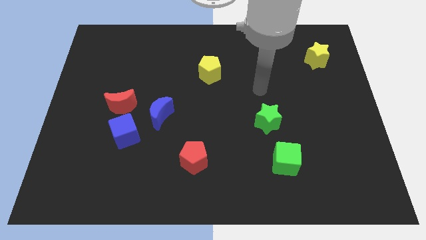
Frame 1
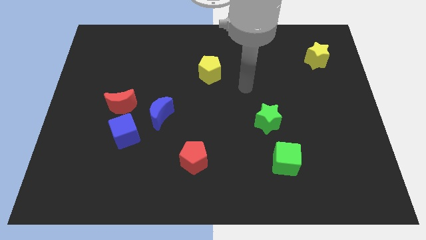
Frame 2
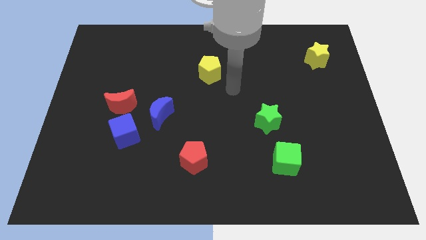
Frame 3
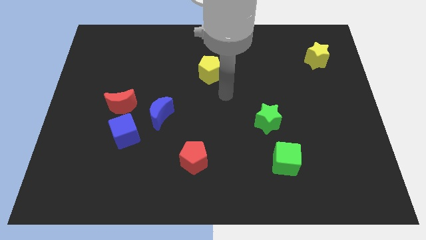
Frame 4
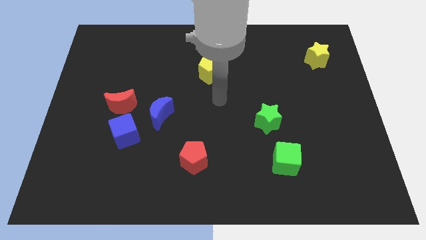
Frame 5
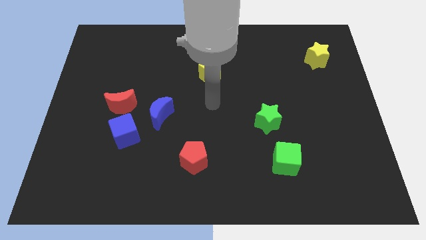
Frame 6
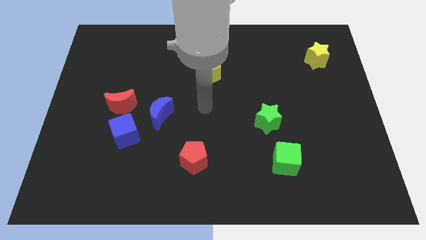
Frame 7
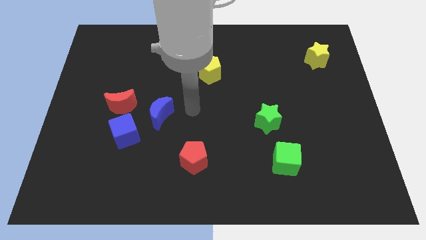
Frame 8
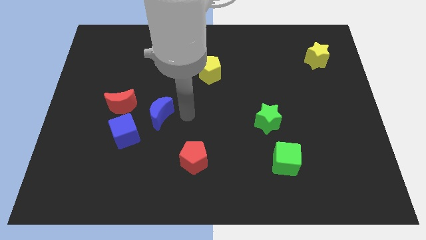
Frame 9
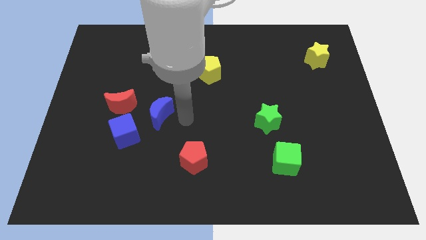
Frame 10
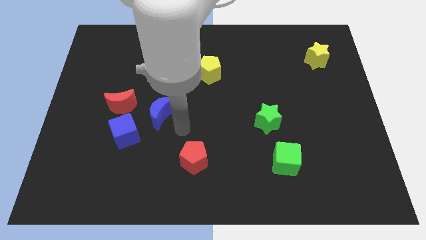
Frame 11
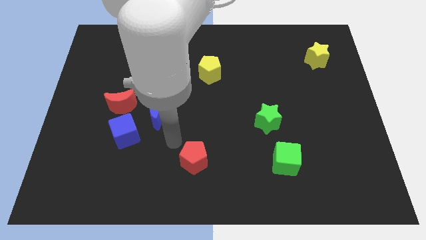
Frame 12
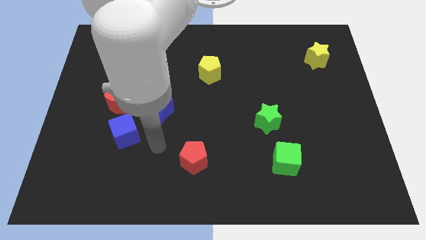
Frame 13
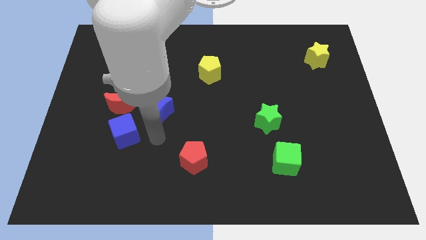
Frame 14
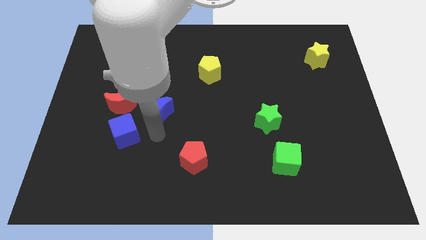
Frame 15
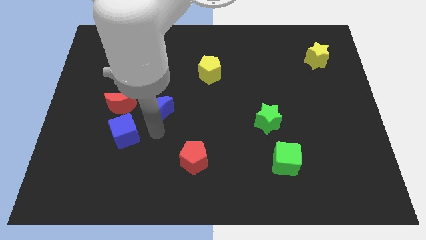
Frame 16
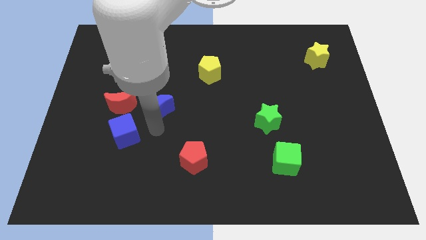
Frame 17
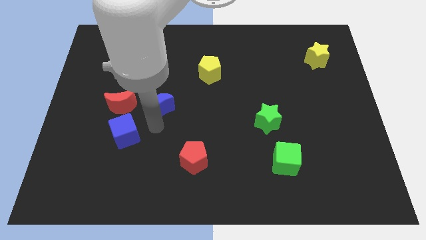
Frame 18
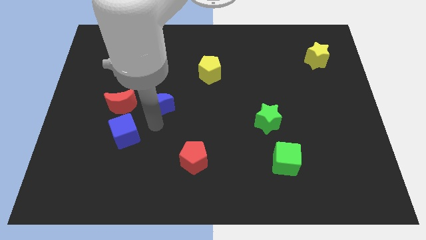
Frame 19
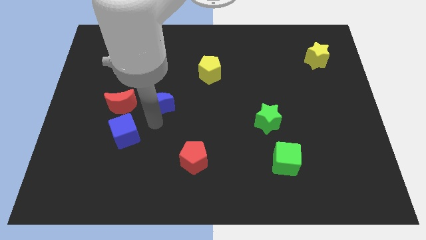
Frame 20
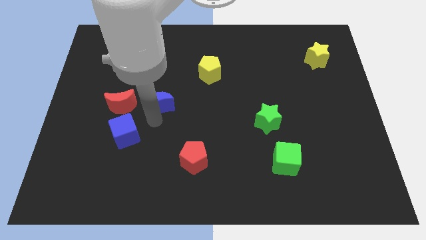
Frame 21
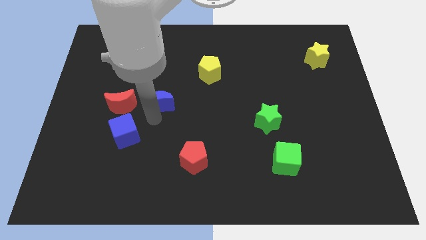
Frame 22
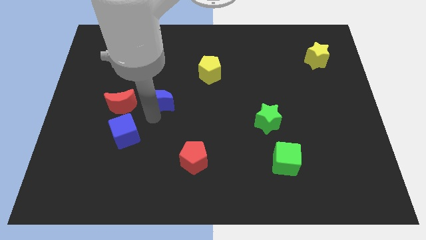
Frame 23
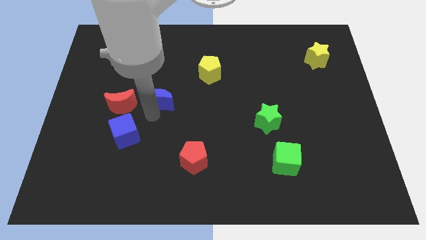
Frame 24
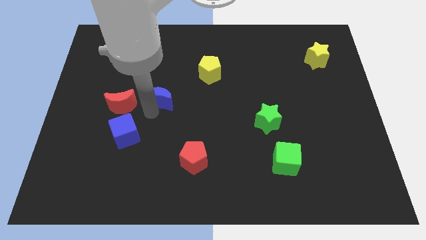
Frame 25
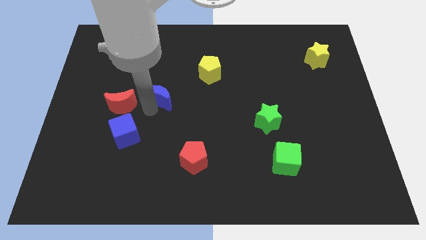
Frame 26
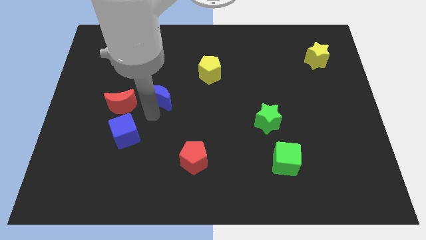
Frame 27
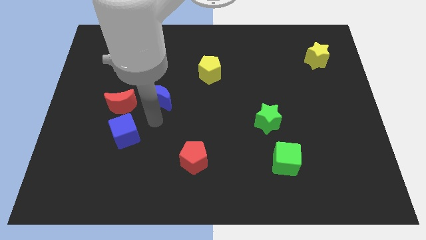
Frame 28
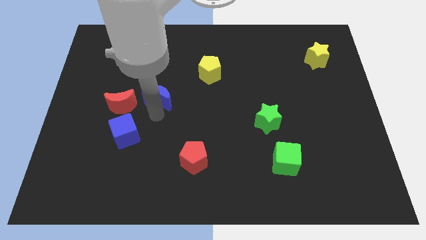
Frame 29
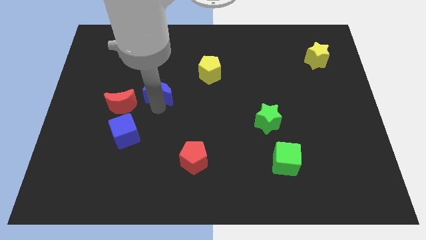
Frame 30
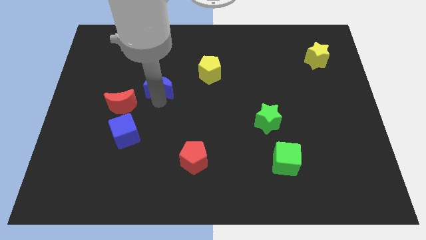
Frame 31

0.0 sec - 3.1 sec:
push the blue moon a little bit up

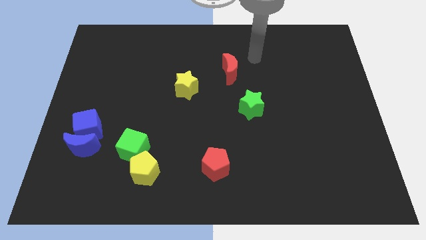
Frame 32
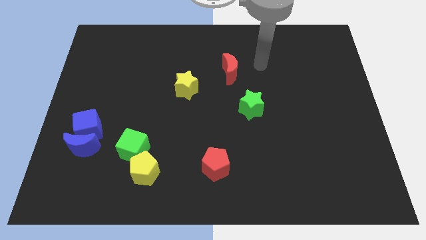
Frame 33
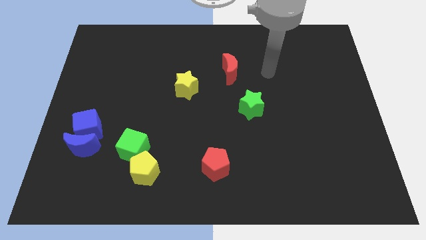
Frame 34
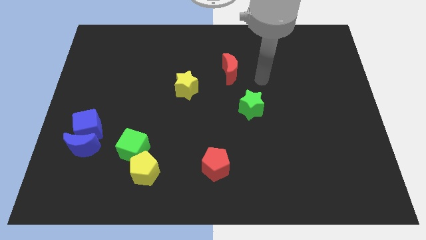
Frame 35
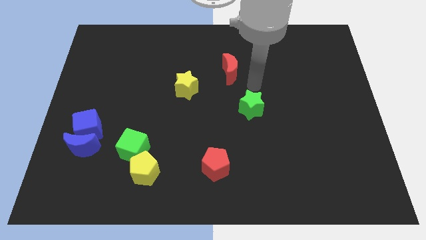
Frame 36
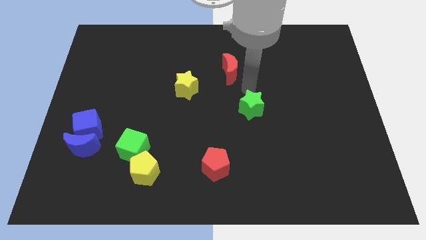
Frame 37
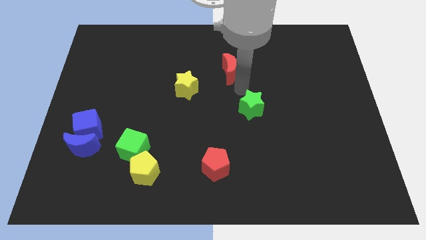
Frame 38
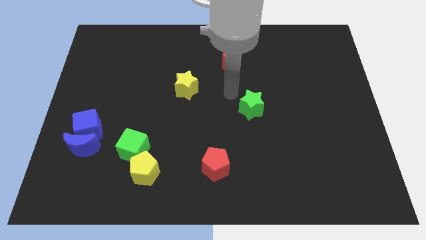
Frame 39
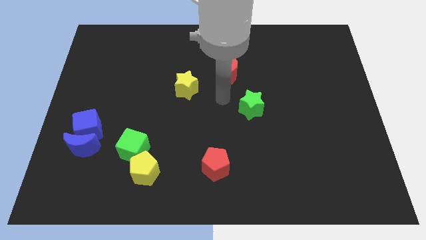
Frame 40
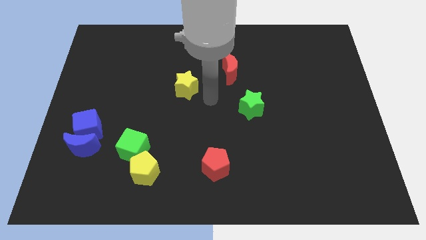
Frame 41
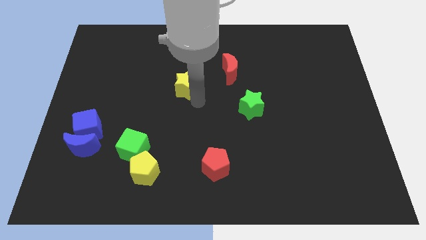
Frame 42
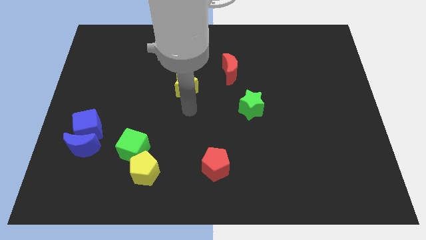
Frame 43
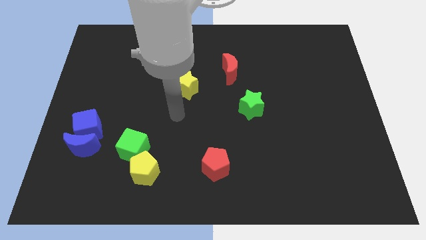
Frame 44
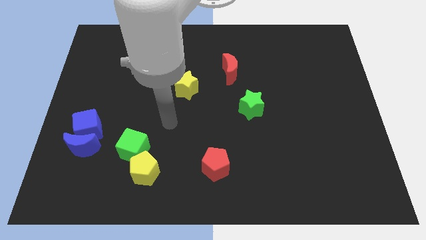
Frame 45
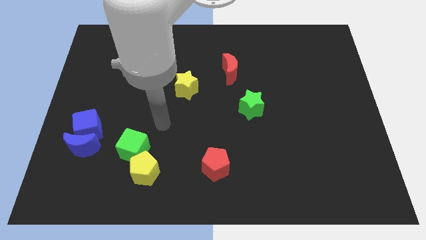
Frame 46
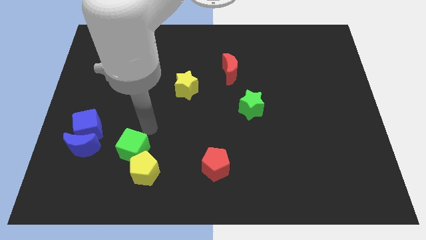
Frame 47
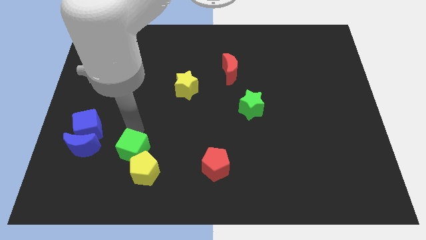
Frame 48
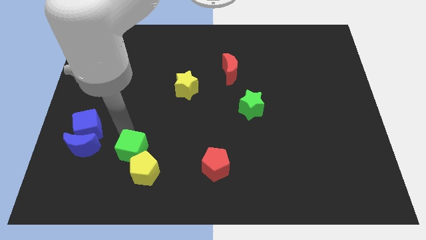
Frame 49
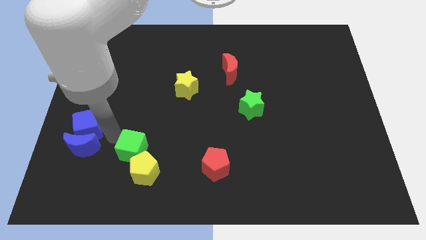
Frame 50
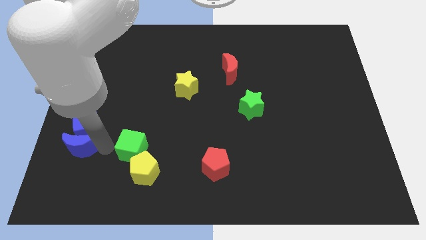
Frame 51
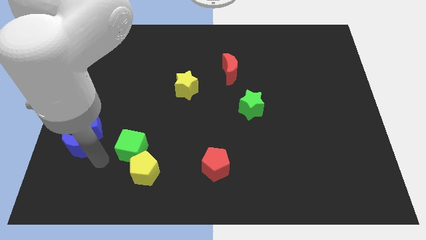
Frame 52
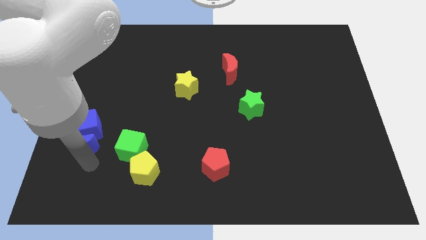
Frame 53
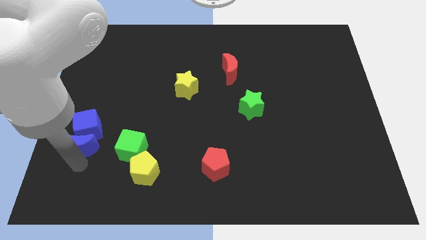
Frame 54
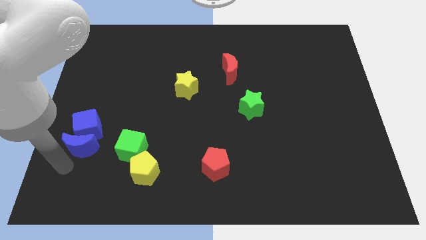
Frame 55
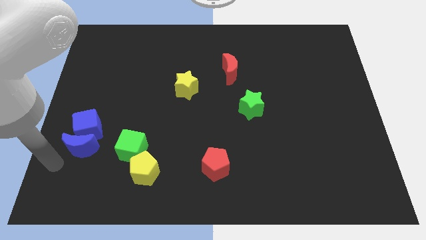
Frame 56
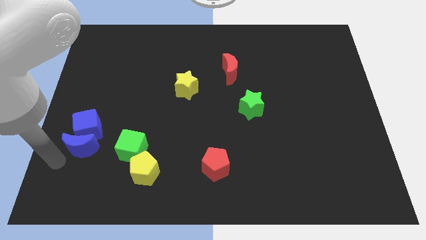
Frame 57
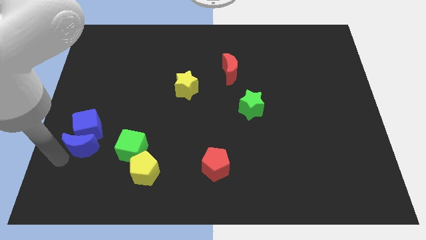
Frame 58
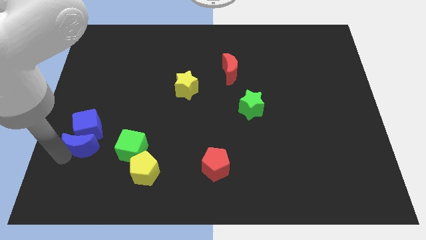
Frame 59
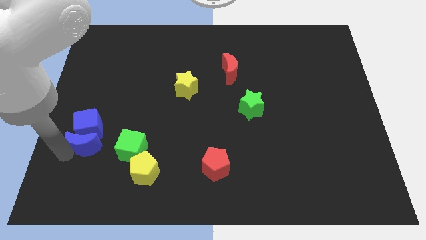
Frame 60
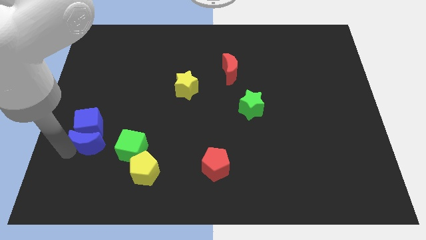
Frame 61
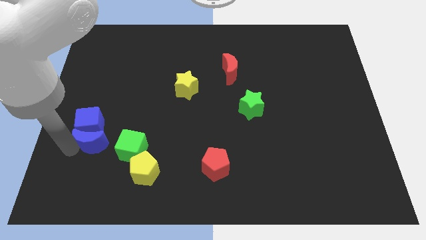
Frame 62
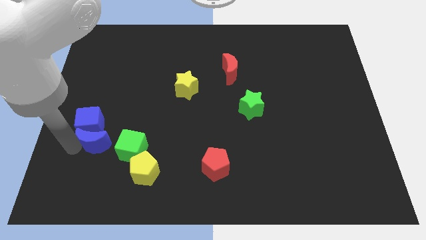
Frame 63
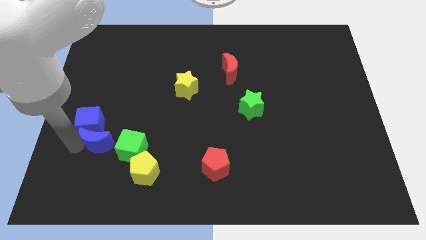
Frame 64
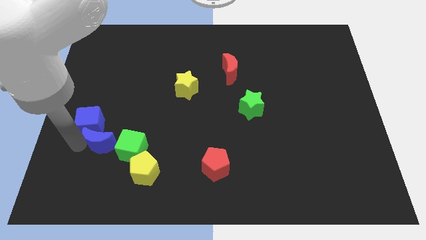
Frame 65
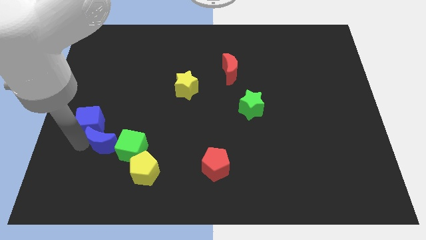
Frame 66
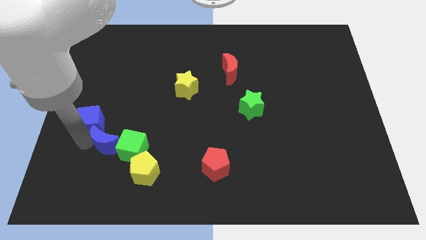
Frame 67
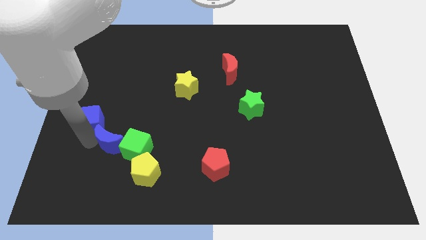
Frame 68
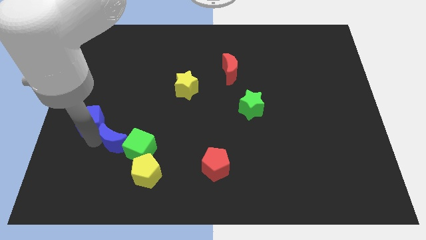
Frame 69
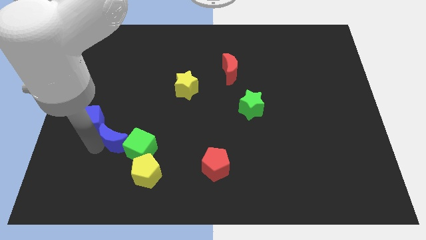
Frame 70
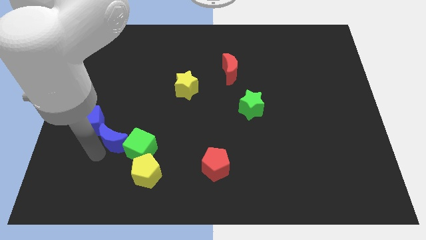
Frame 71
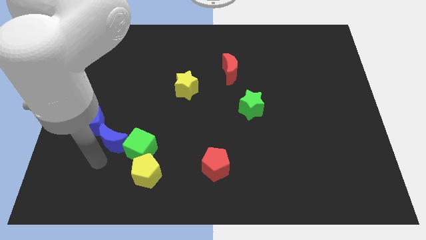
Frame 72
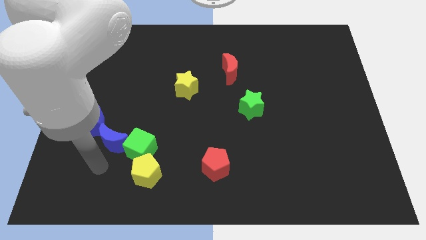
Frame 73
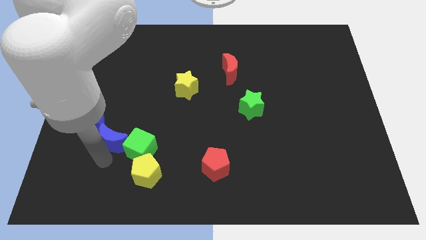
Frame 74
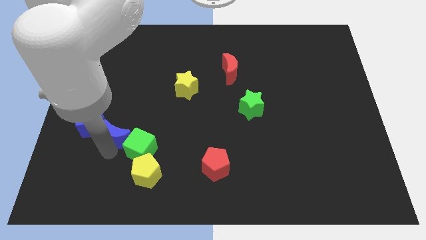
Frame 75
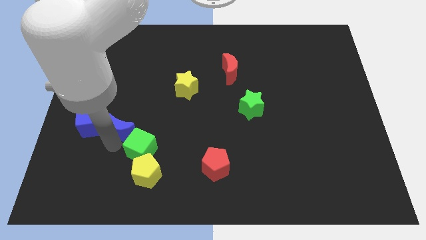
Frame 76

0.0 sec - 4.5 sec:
slide the blue moon a little bit up and right diagonally

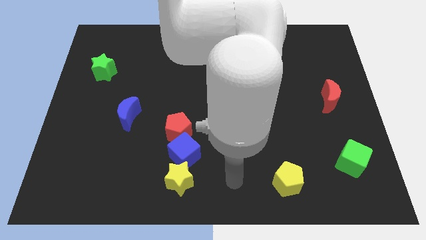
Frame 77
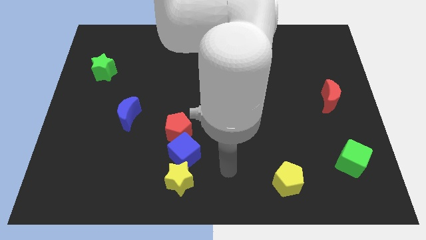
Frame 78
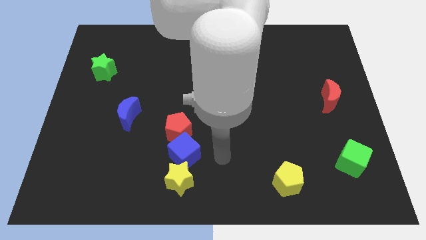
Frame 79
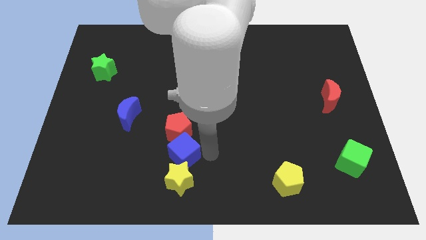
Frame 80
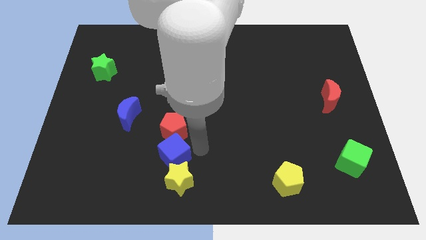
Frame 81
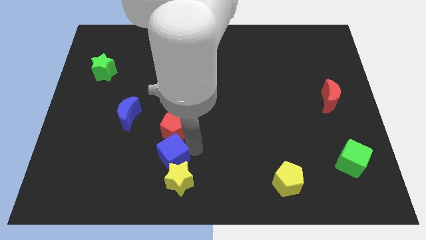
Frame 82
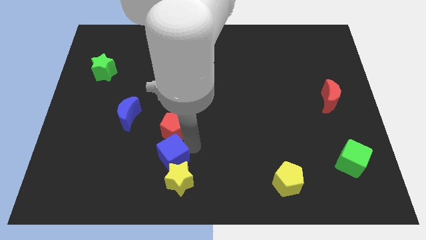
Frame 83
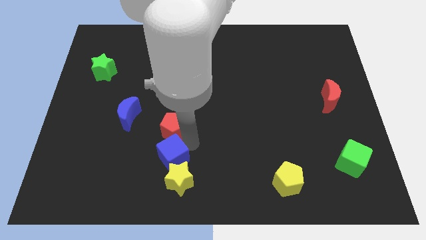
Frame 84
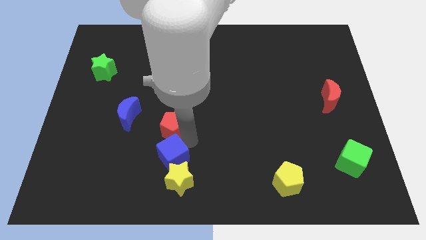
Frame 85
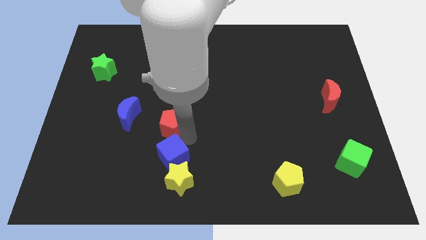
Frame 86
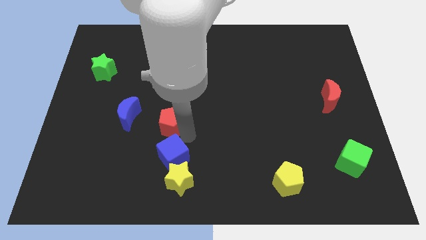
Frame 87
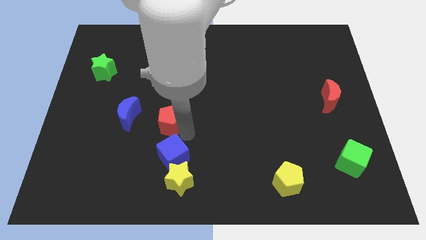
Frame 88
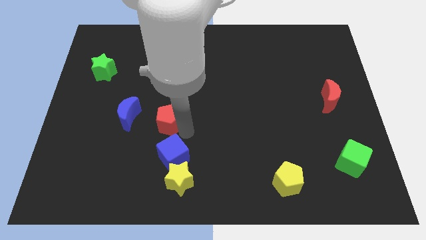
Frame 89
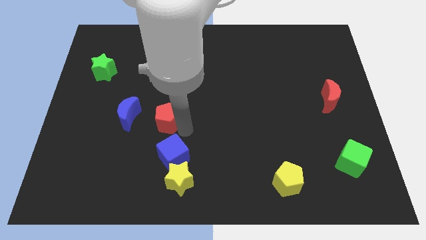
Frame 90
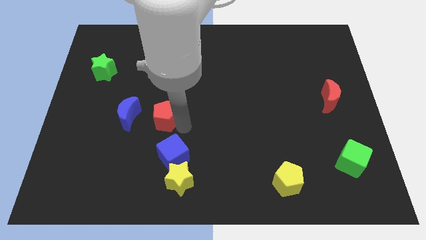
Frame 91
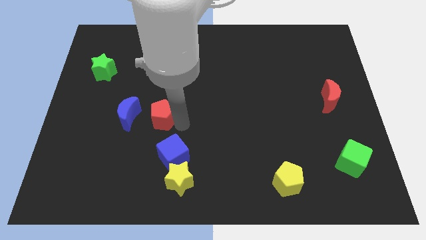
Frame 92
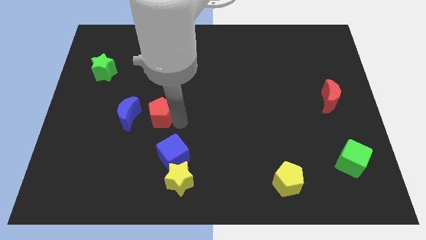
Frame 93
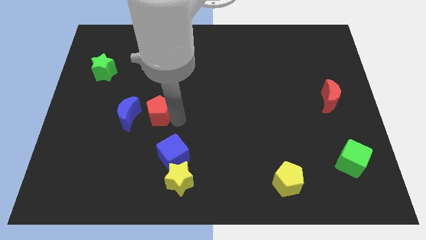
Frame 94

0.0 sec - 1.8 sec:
push the red pentagon up and left diagonally a bit
